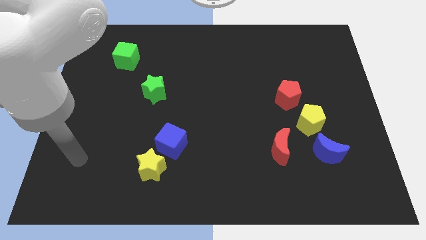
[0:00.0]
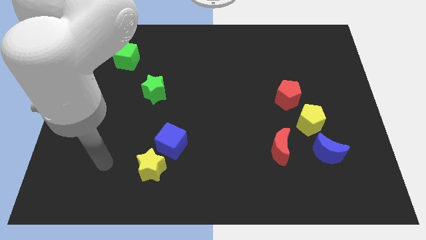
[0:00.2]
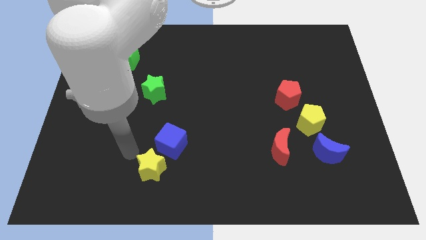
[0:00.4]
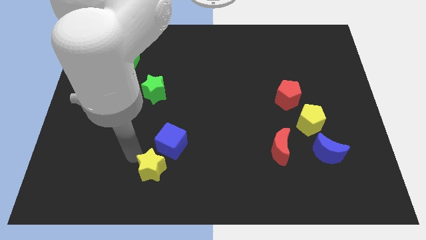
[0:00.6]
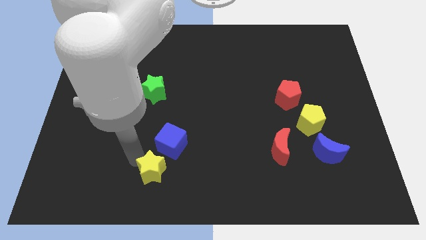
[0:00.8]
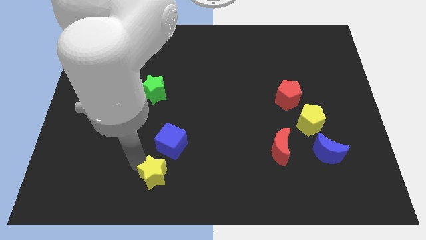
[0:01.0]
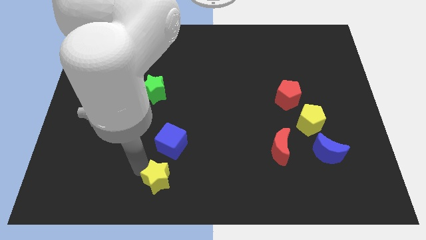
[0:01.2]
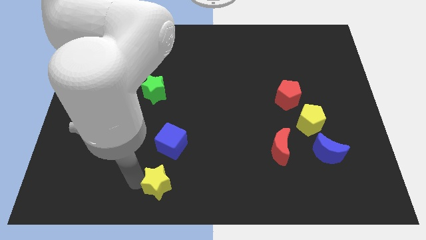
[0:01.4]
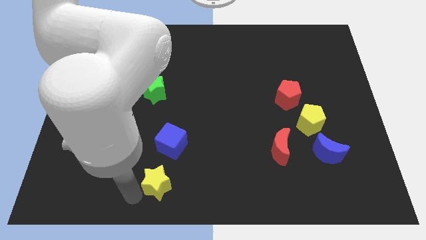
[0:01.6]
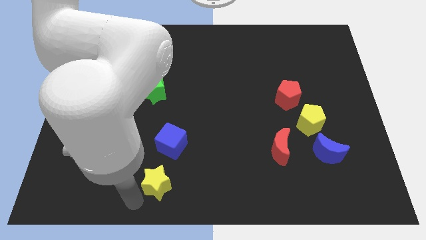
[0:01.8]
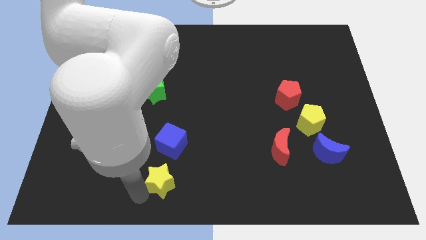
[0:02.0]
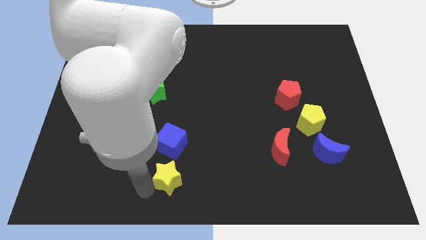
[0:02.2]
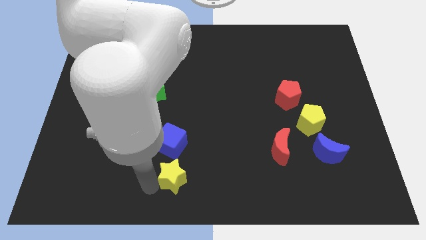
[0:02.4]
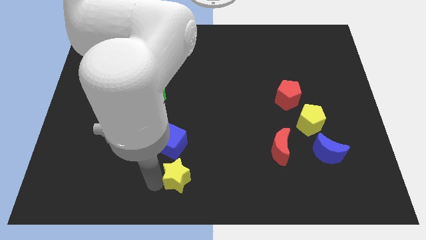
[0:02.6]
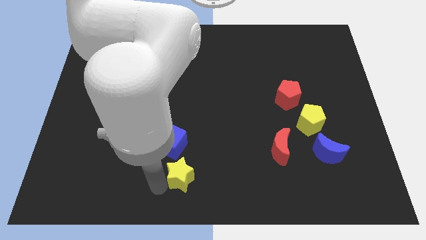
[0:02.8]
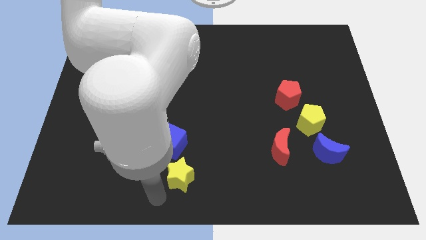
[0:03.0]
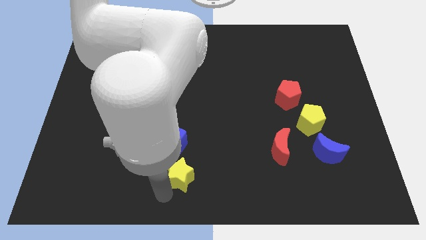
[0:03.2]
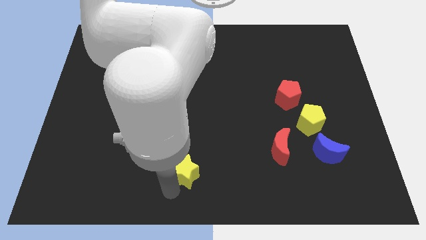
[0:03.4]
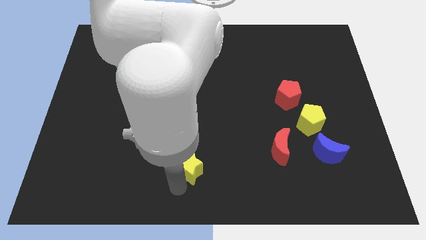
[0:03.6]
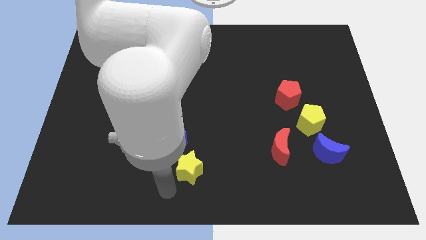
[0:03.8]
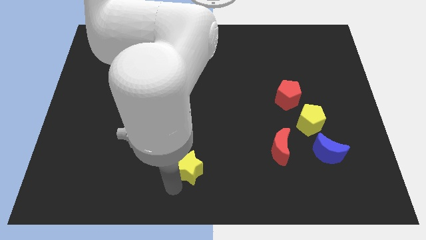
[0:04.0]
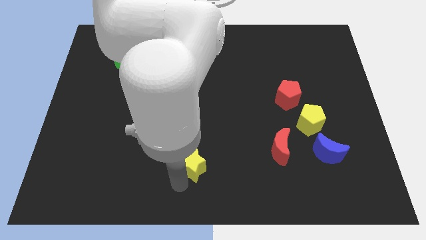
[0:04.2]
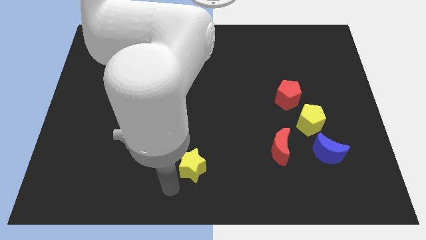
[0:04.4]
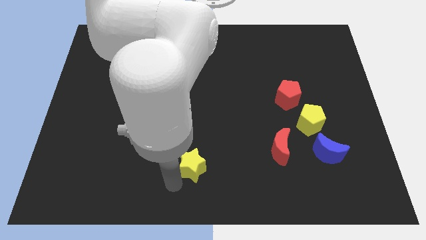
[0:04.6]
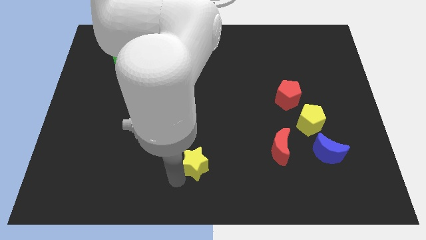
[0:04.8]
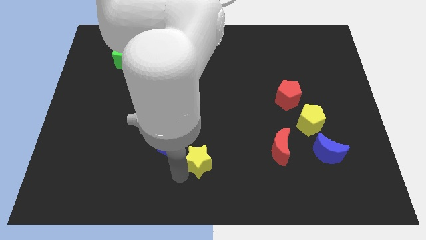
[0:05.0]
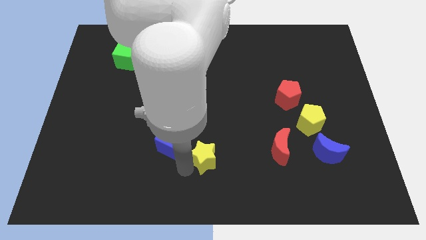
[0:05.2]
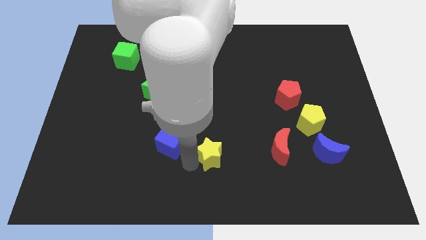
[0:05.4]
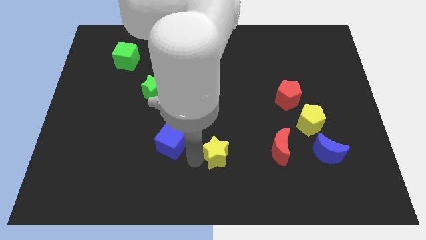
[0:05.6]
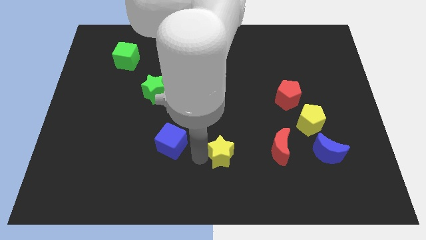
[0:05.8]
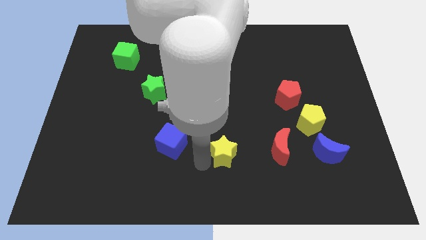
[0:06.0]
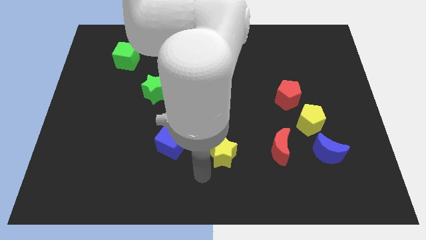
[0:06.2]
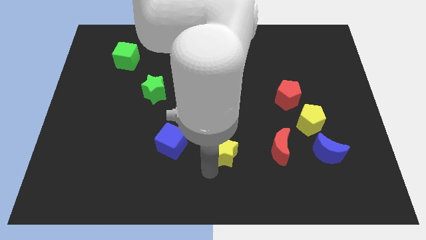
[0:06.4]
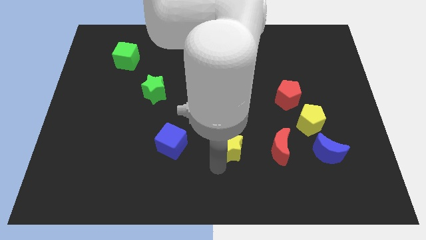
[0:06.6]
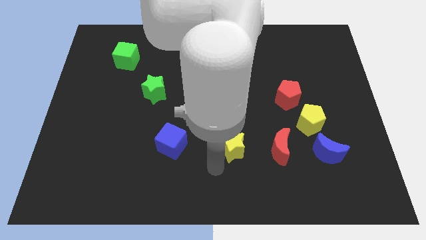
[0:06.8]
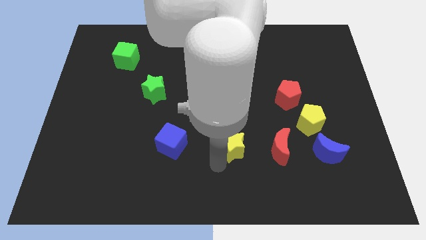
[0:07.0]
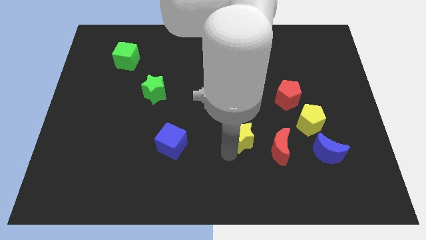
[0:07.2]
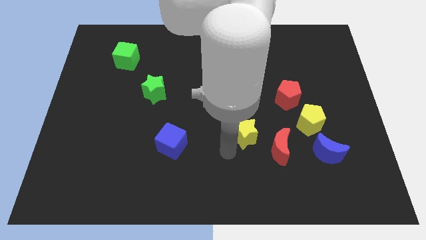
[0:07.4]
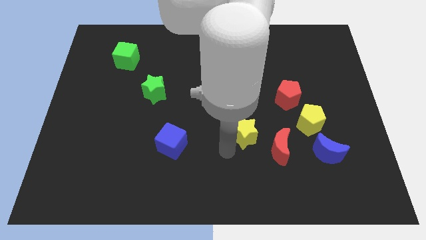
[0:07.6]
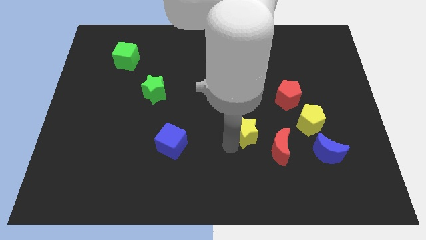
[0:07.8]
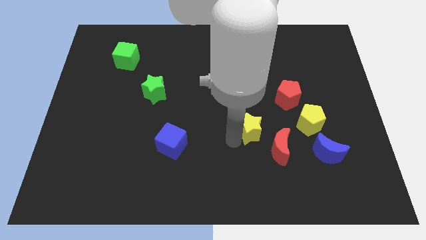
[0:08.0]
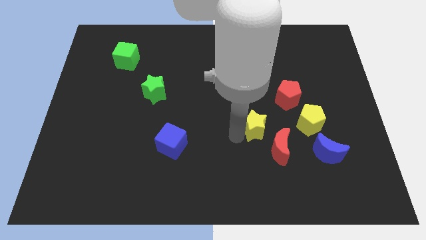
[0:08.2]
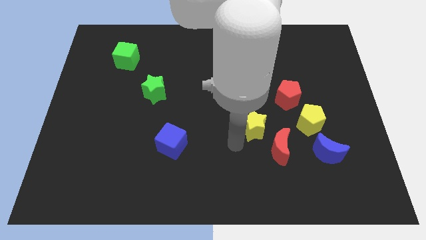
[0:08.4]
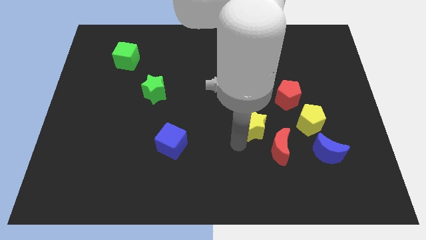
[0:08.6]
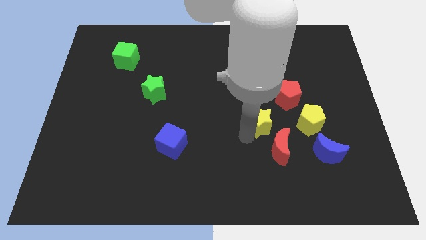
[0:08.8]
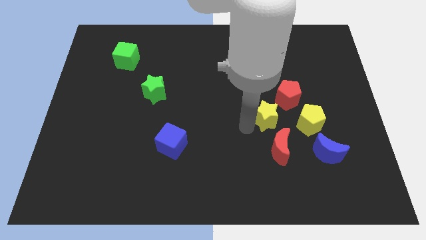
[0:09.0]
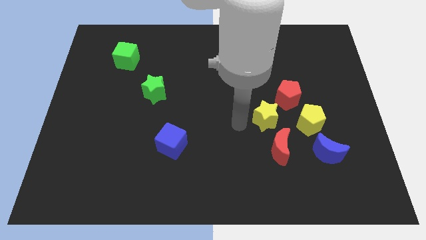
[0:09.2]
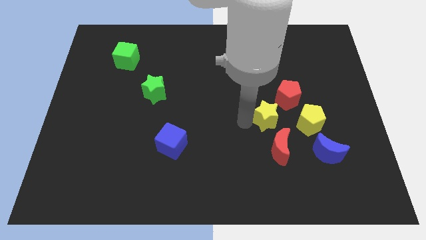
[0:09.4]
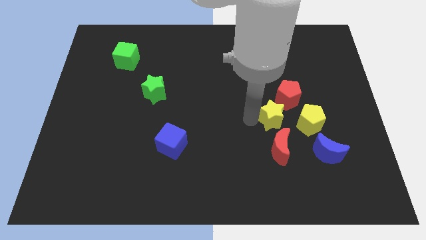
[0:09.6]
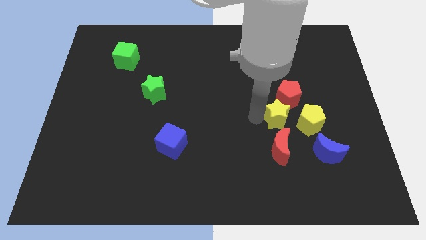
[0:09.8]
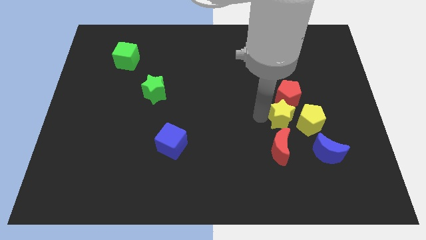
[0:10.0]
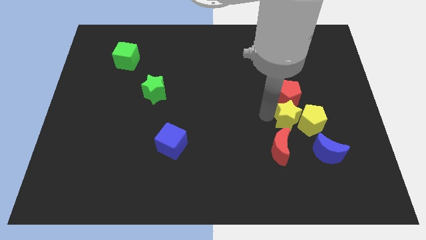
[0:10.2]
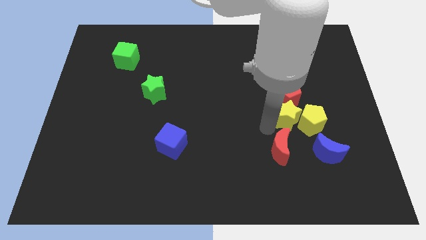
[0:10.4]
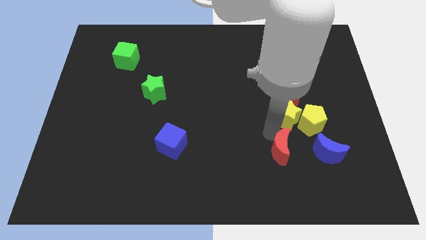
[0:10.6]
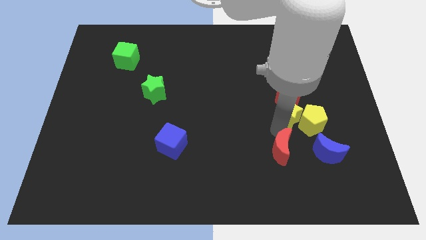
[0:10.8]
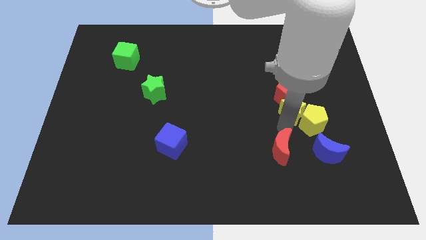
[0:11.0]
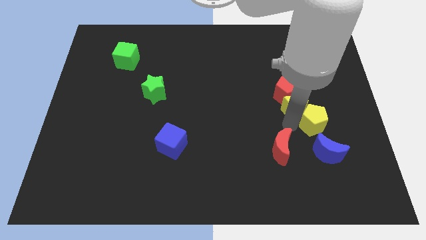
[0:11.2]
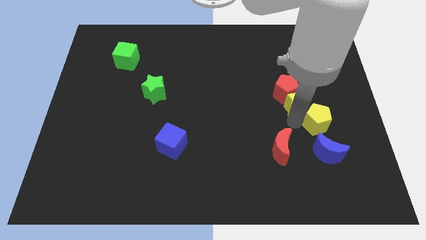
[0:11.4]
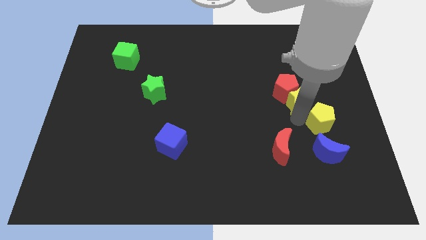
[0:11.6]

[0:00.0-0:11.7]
push the yellow star right of the red pentagon

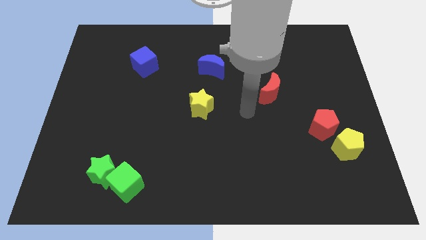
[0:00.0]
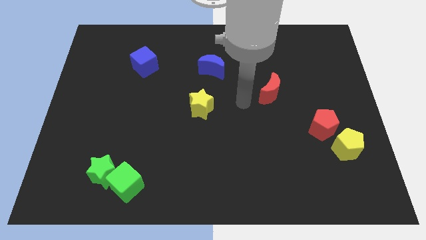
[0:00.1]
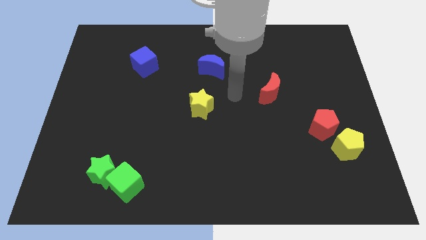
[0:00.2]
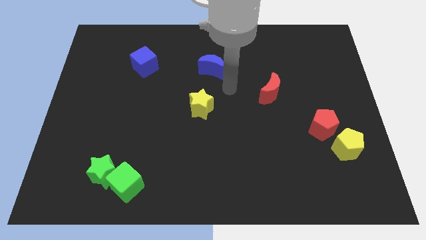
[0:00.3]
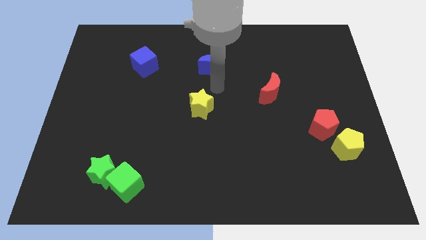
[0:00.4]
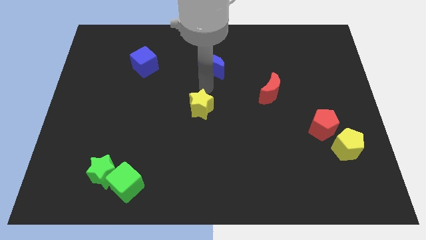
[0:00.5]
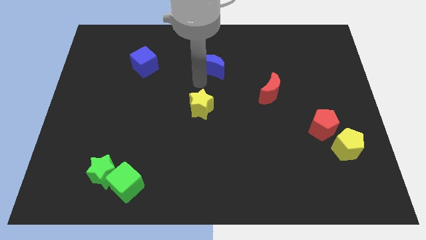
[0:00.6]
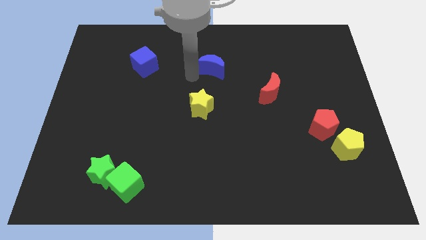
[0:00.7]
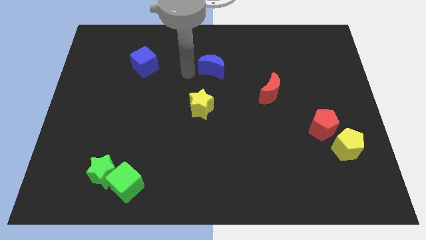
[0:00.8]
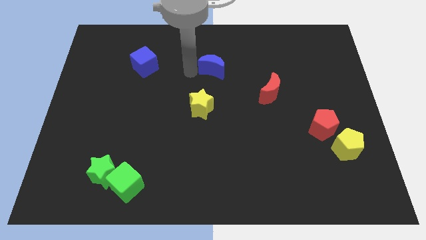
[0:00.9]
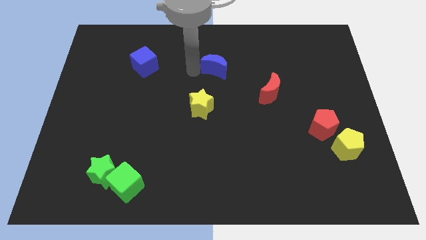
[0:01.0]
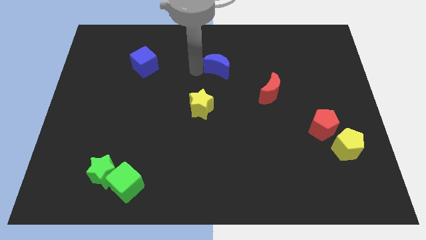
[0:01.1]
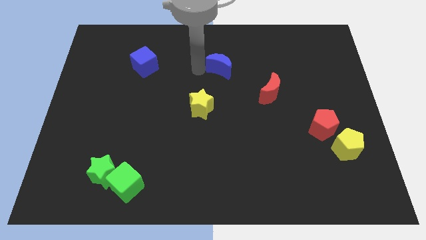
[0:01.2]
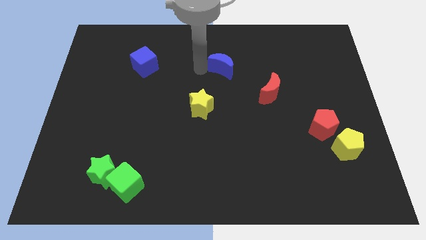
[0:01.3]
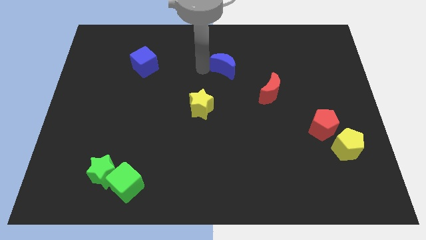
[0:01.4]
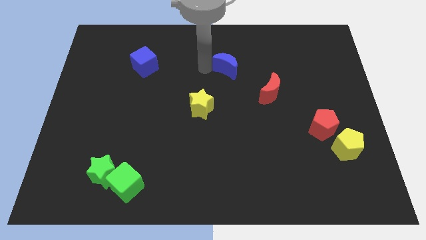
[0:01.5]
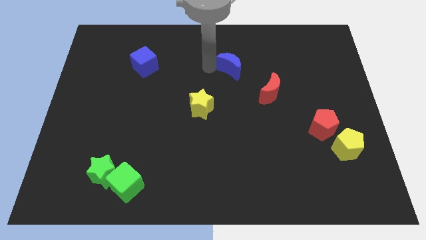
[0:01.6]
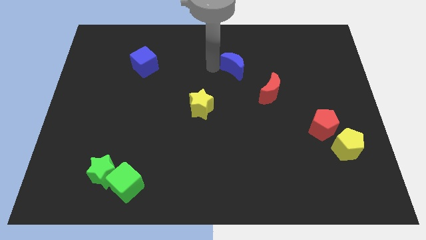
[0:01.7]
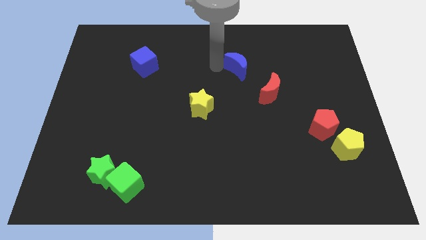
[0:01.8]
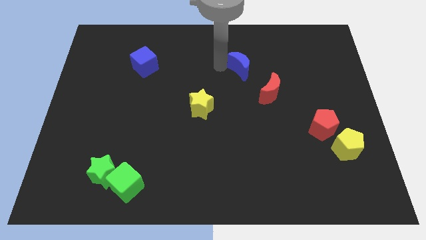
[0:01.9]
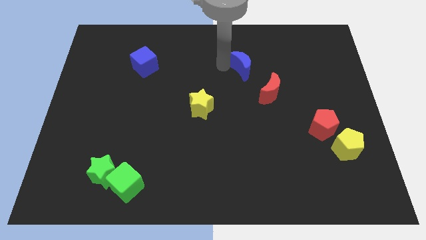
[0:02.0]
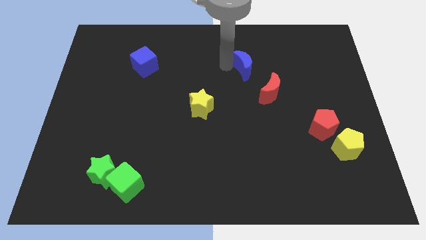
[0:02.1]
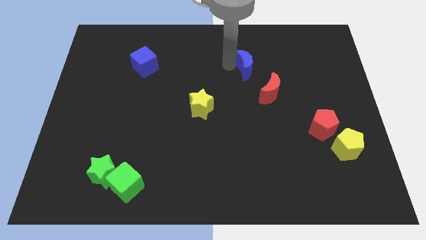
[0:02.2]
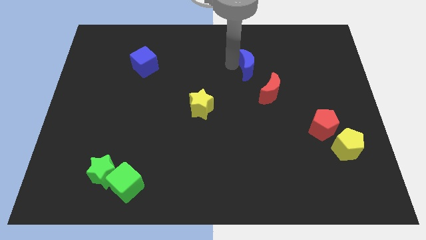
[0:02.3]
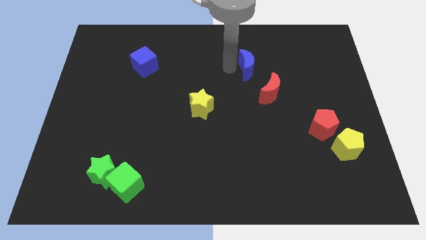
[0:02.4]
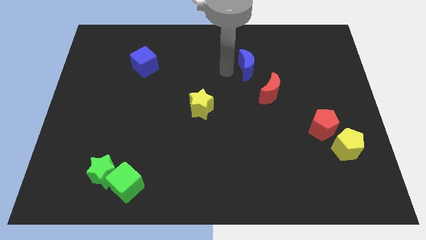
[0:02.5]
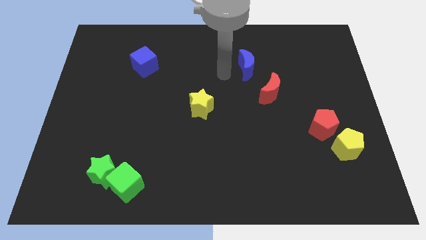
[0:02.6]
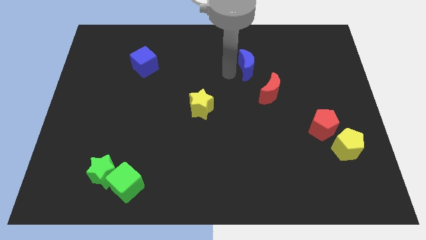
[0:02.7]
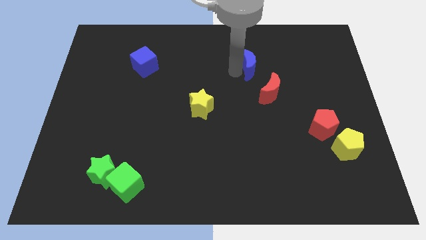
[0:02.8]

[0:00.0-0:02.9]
put the blue moon to the top side of the red moon
